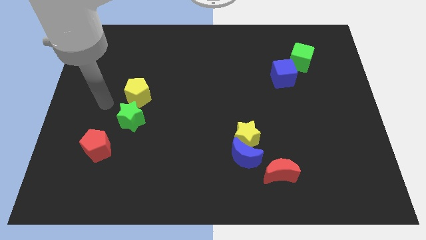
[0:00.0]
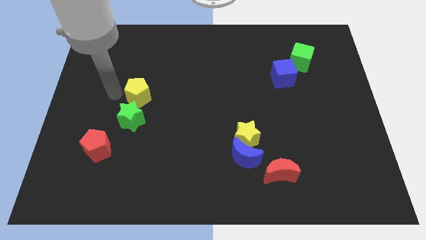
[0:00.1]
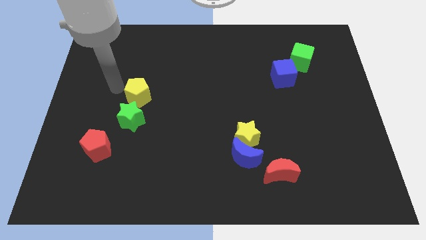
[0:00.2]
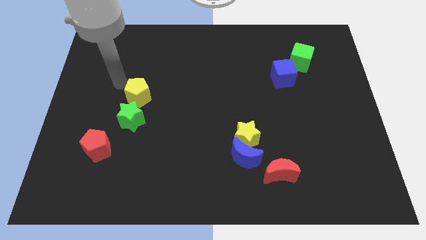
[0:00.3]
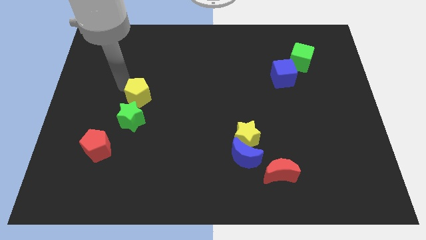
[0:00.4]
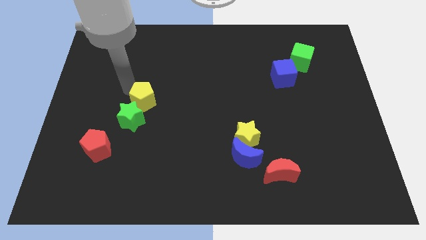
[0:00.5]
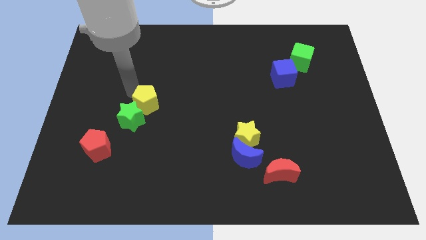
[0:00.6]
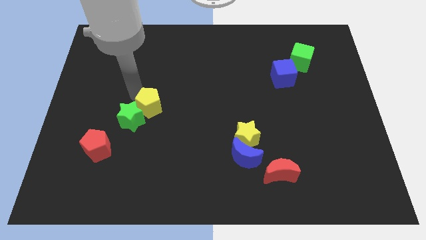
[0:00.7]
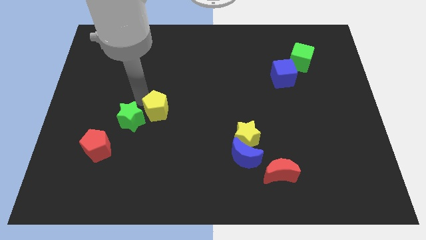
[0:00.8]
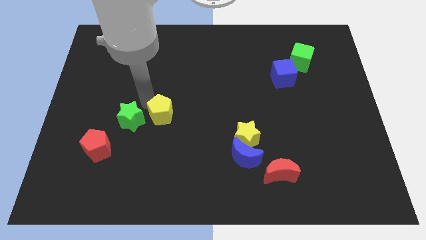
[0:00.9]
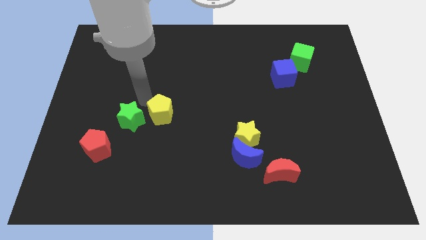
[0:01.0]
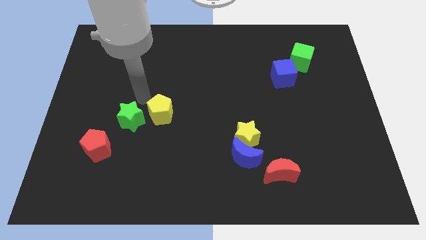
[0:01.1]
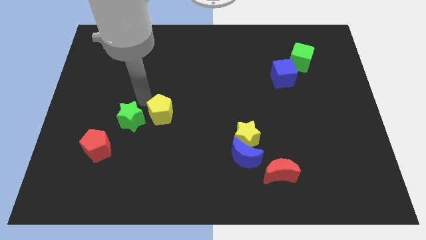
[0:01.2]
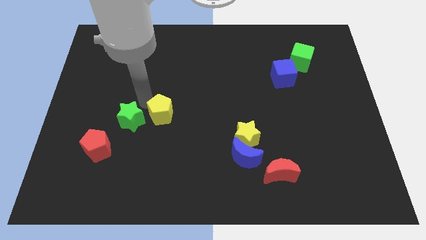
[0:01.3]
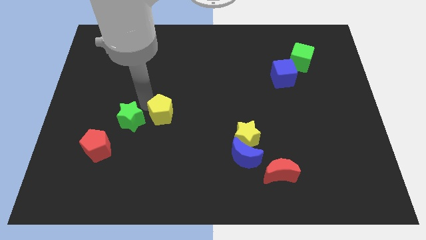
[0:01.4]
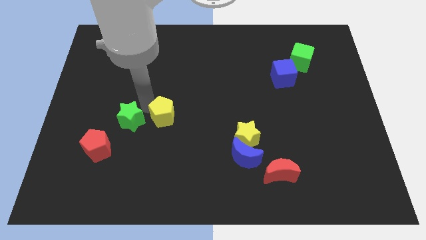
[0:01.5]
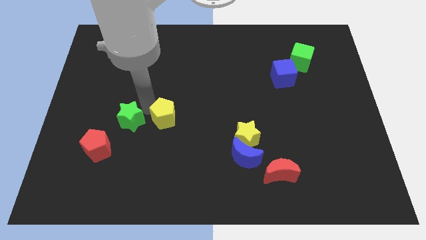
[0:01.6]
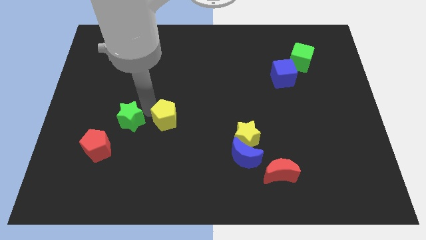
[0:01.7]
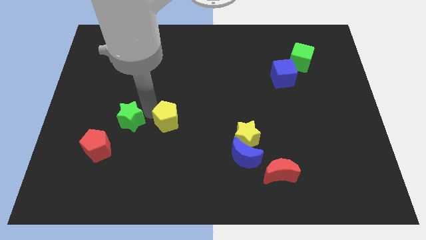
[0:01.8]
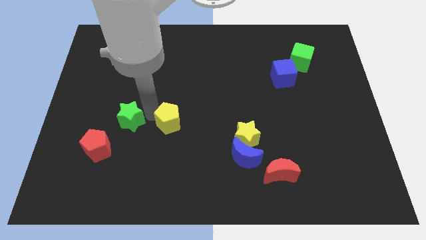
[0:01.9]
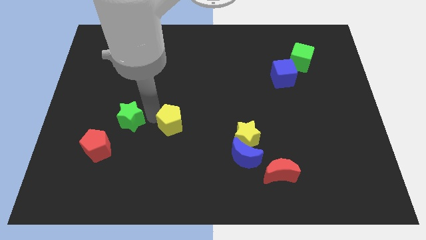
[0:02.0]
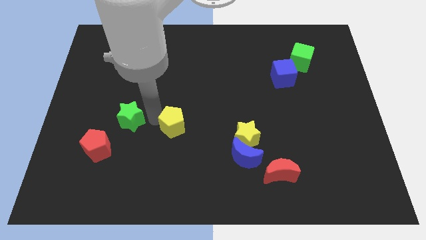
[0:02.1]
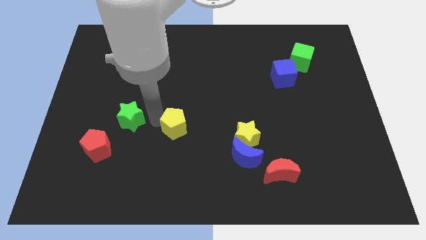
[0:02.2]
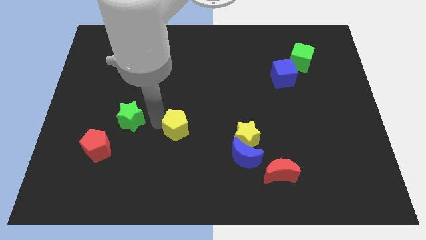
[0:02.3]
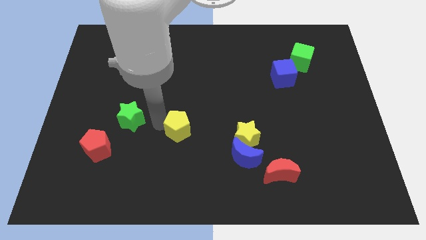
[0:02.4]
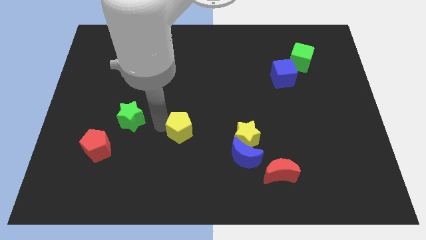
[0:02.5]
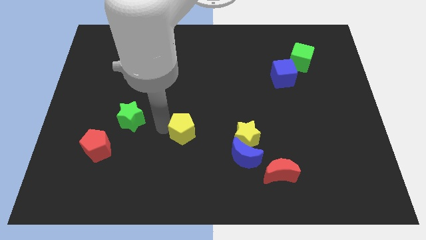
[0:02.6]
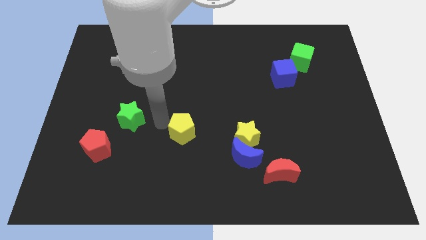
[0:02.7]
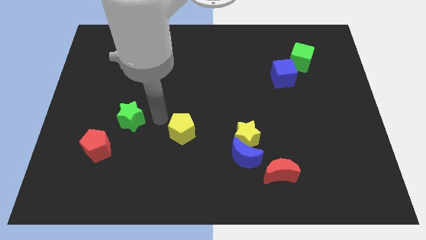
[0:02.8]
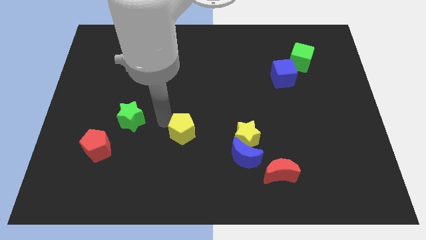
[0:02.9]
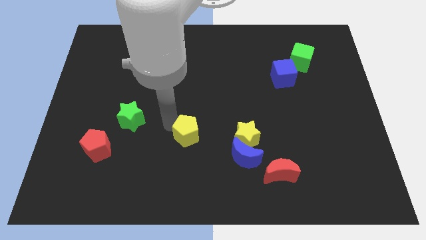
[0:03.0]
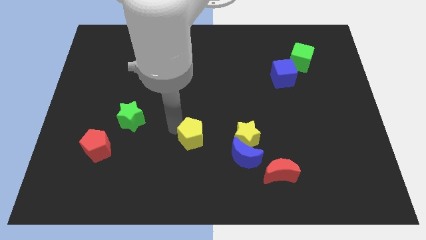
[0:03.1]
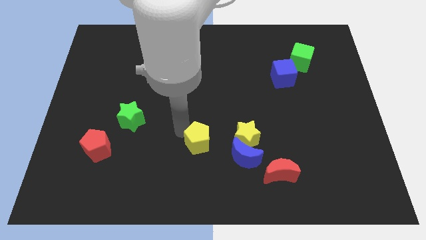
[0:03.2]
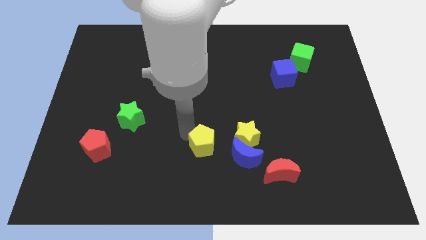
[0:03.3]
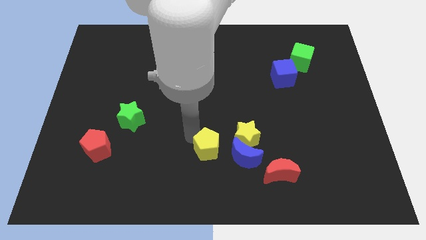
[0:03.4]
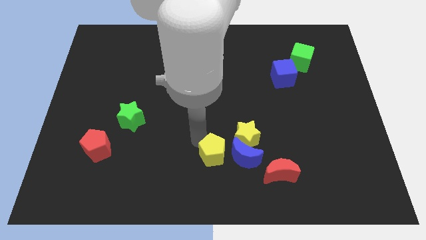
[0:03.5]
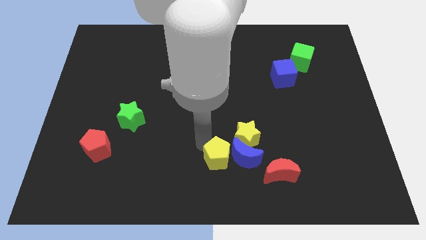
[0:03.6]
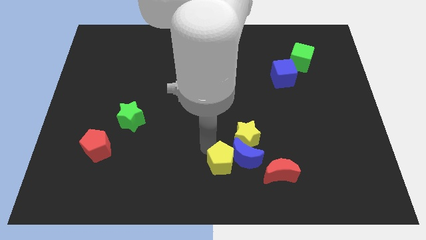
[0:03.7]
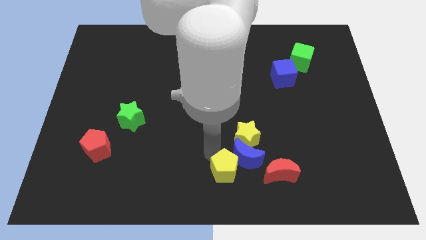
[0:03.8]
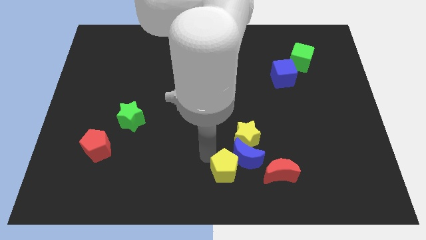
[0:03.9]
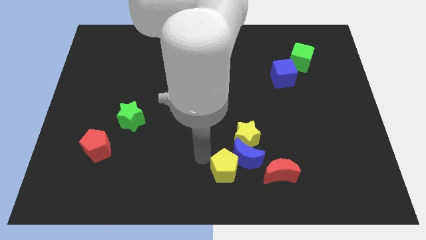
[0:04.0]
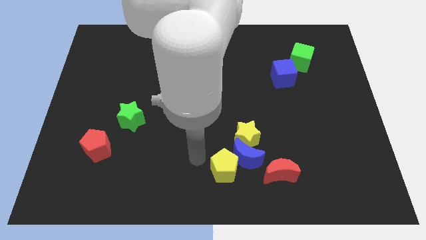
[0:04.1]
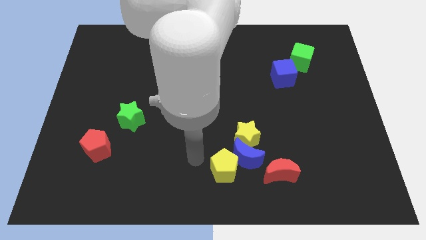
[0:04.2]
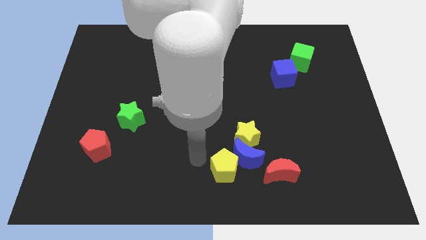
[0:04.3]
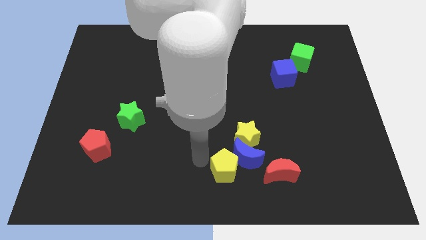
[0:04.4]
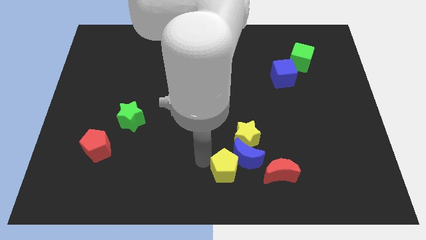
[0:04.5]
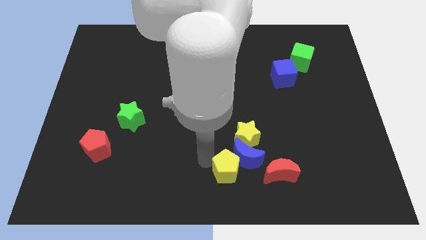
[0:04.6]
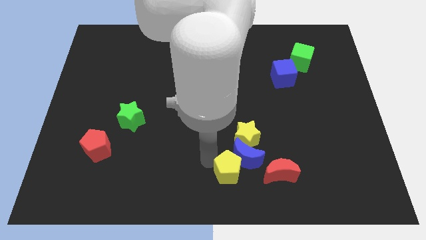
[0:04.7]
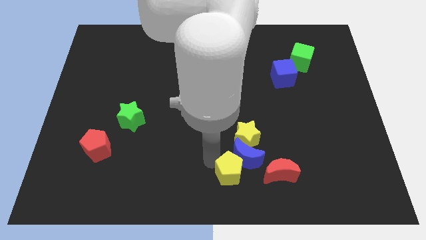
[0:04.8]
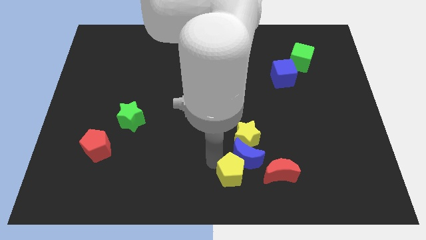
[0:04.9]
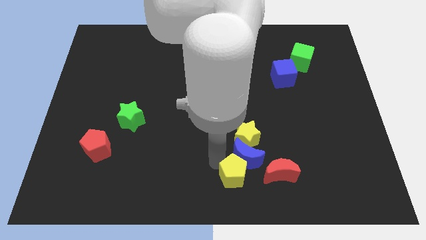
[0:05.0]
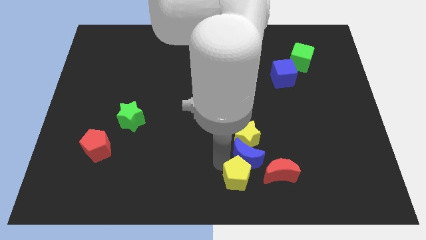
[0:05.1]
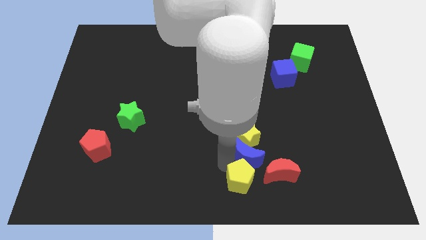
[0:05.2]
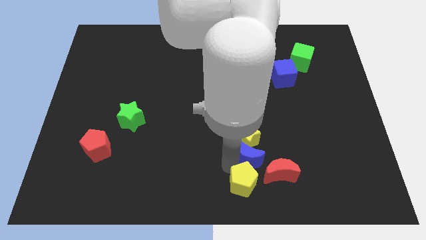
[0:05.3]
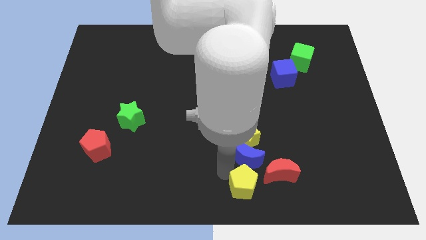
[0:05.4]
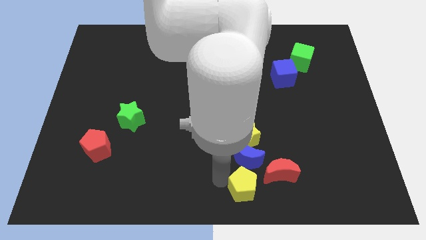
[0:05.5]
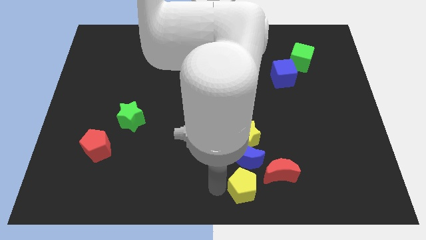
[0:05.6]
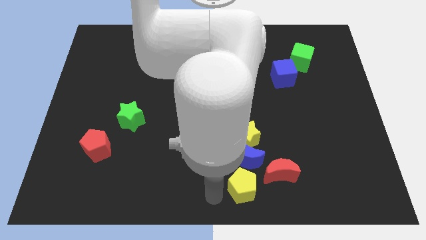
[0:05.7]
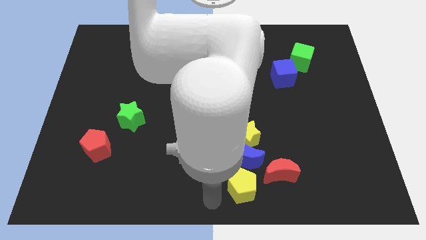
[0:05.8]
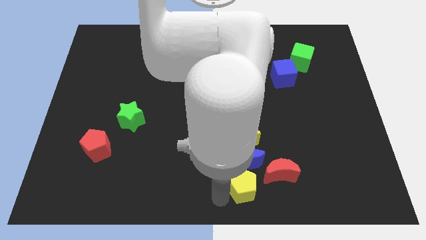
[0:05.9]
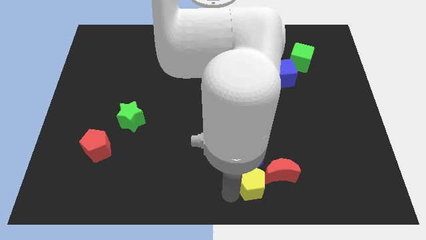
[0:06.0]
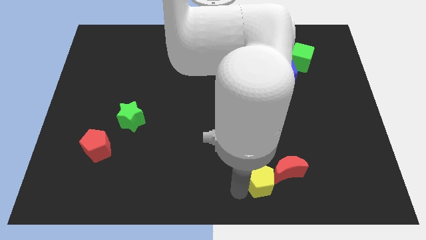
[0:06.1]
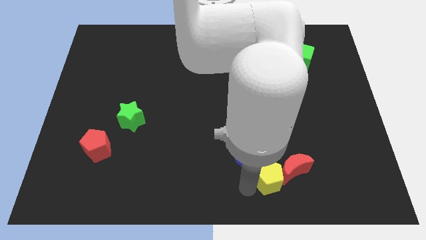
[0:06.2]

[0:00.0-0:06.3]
put the yellow pentagon close to the red moon

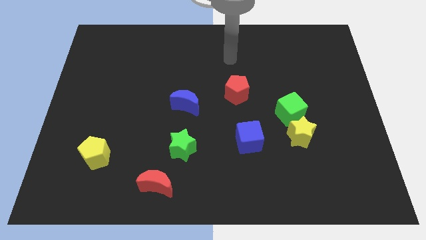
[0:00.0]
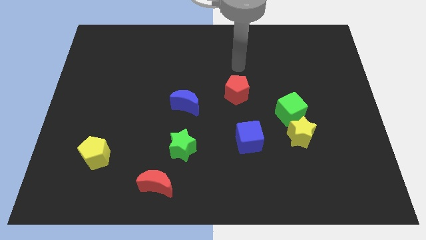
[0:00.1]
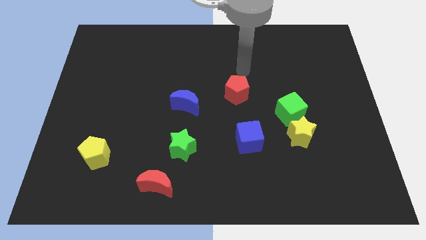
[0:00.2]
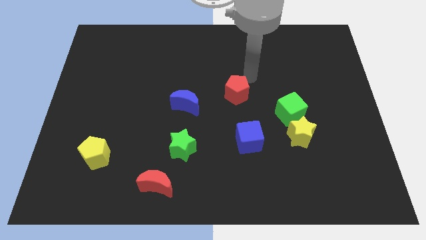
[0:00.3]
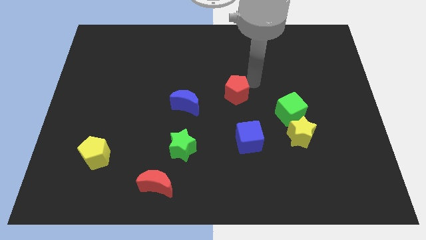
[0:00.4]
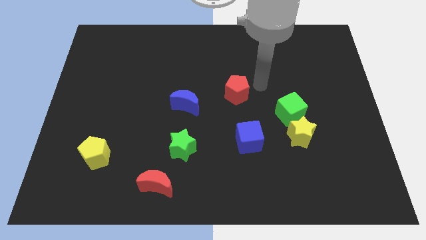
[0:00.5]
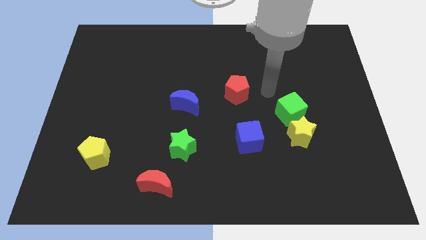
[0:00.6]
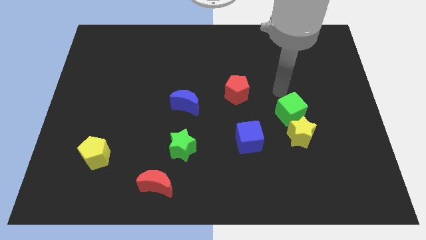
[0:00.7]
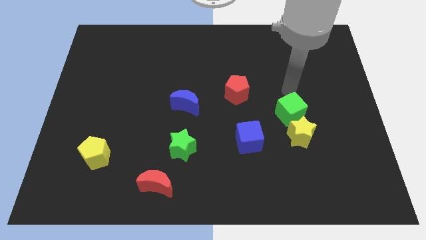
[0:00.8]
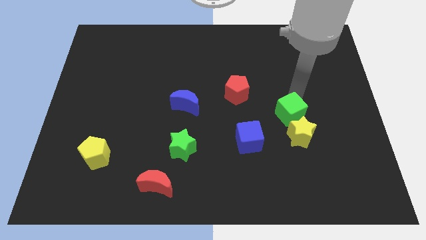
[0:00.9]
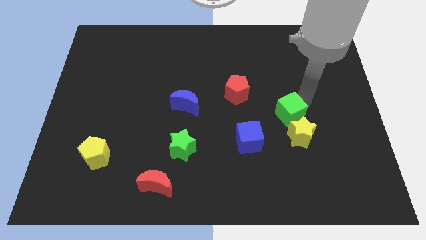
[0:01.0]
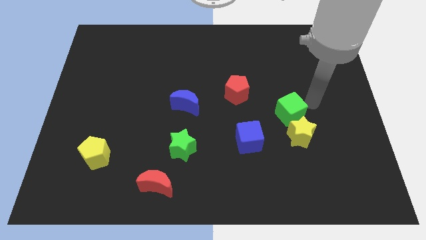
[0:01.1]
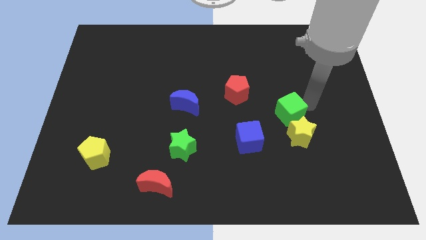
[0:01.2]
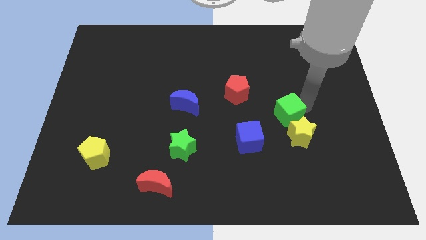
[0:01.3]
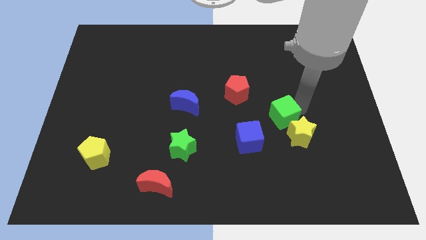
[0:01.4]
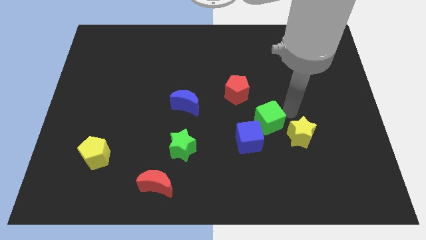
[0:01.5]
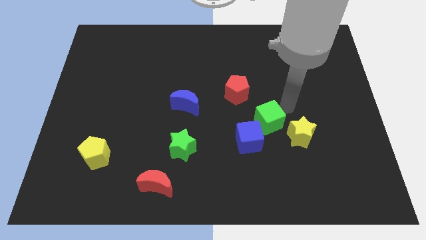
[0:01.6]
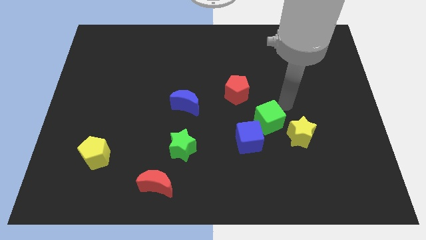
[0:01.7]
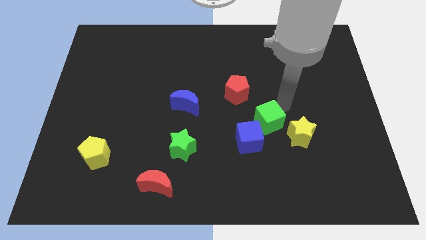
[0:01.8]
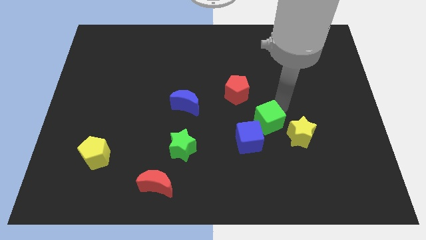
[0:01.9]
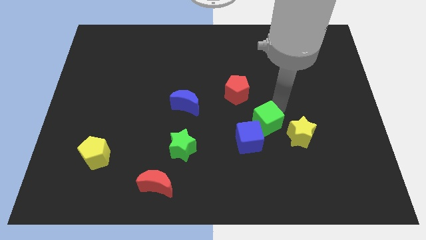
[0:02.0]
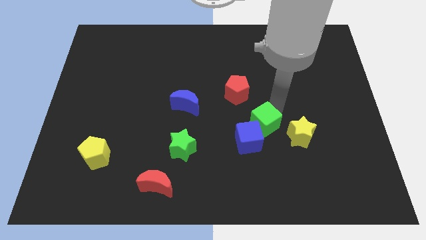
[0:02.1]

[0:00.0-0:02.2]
slide the green cube next to the blue cube
